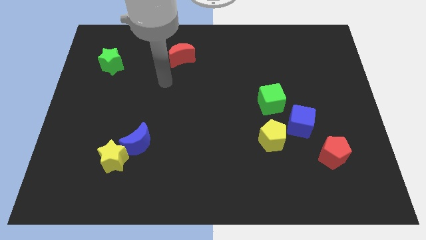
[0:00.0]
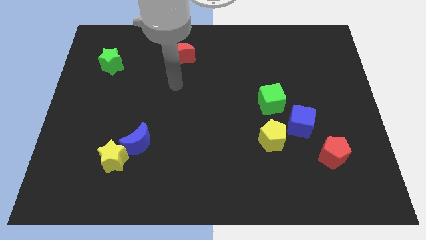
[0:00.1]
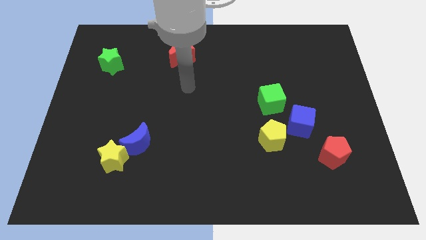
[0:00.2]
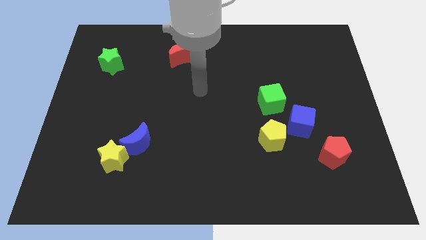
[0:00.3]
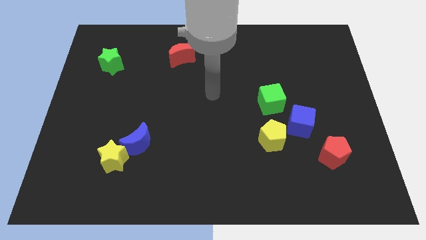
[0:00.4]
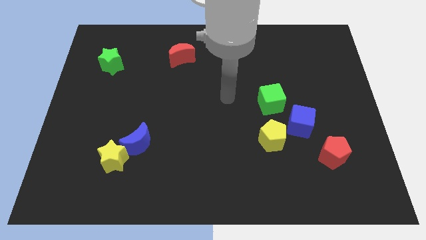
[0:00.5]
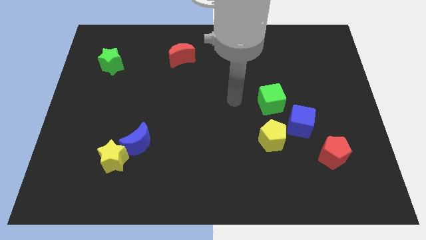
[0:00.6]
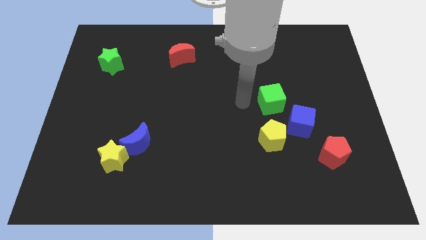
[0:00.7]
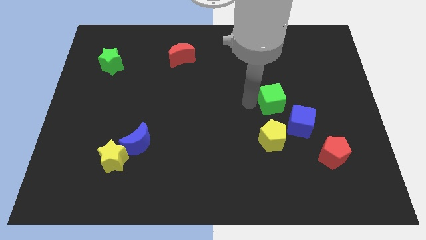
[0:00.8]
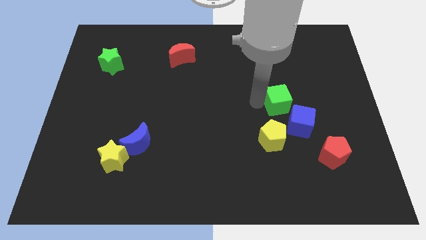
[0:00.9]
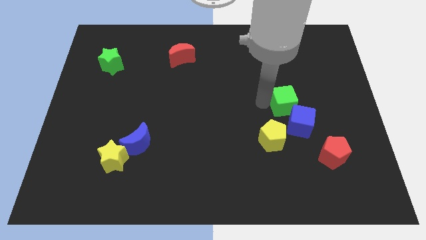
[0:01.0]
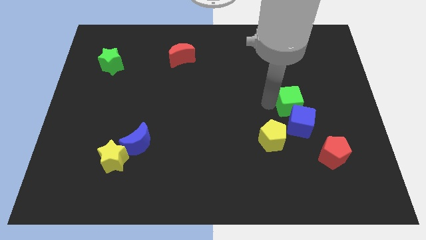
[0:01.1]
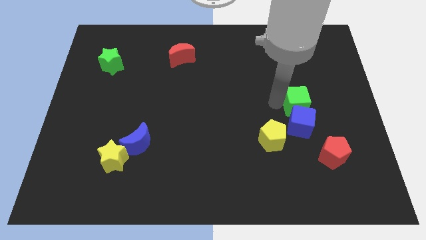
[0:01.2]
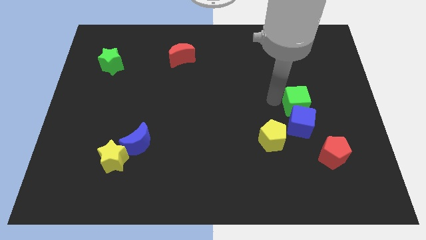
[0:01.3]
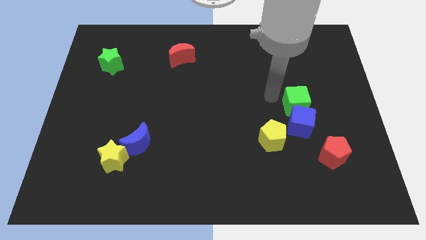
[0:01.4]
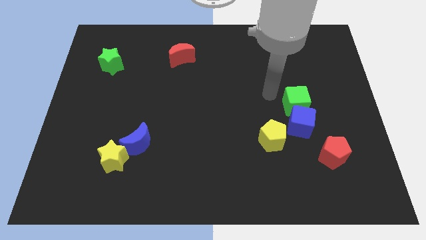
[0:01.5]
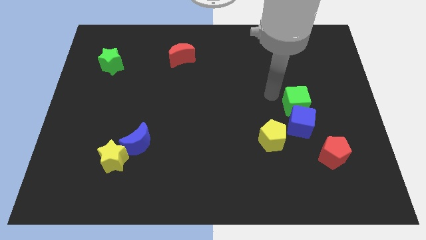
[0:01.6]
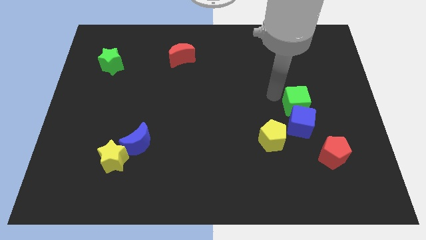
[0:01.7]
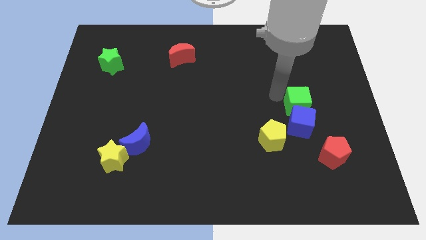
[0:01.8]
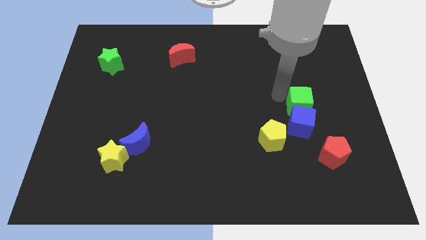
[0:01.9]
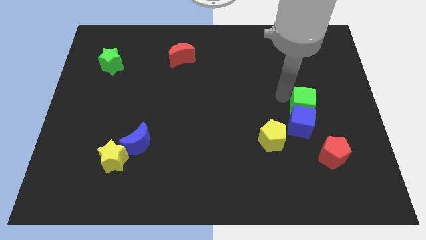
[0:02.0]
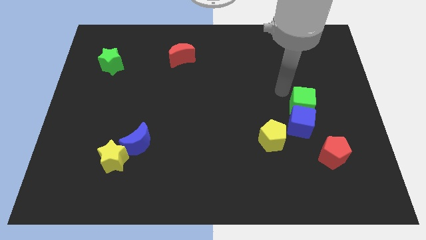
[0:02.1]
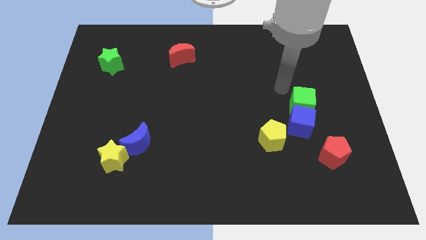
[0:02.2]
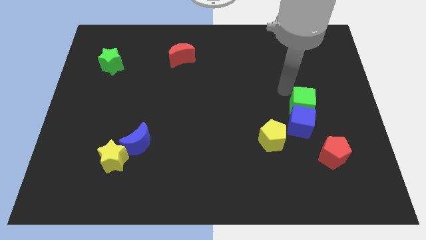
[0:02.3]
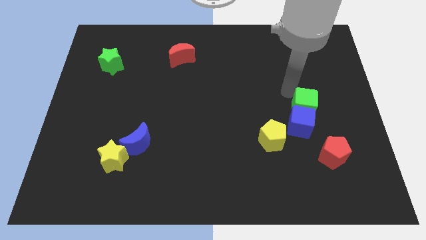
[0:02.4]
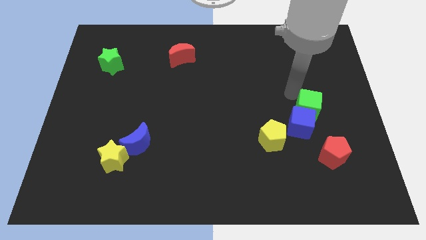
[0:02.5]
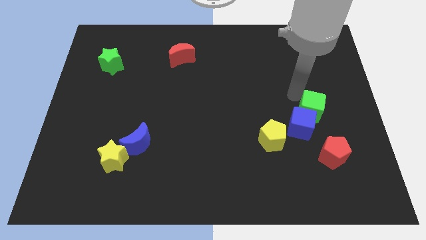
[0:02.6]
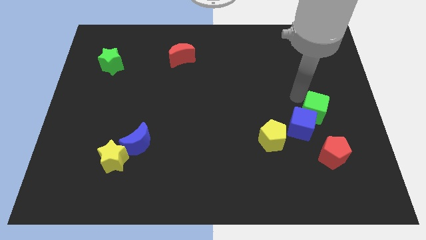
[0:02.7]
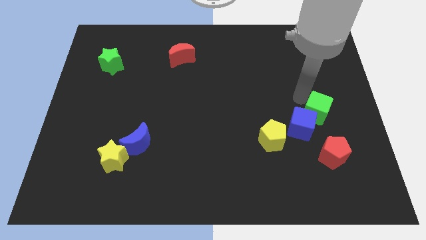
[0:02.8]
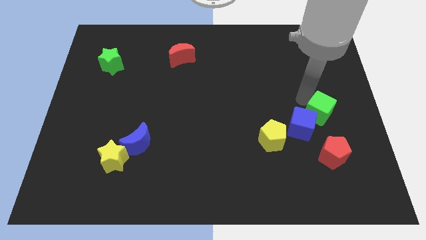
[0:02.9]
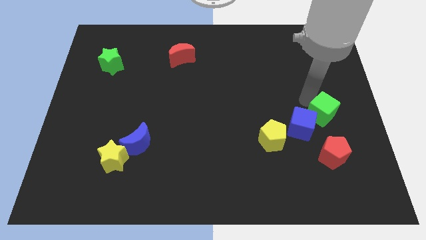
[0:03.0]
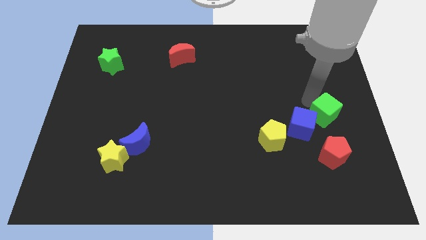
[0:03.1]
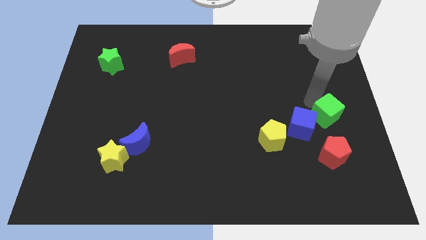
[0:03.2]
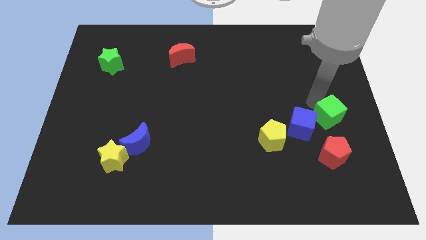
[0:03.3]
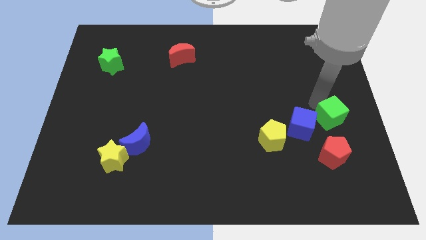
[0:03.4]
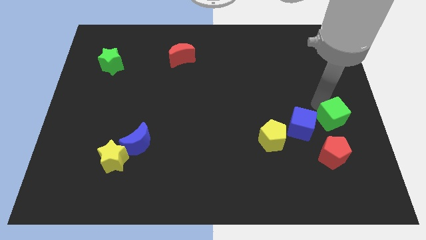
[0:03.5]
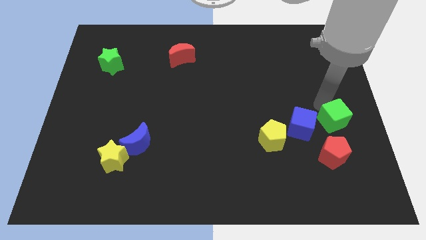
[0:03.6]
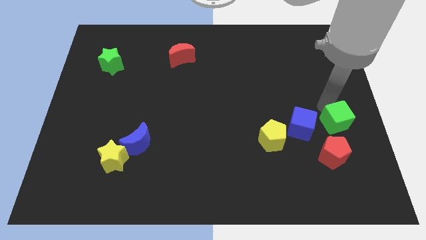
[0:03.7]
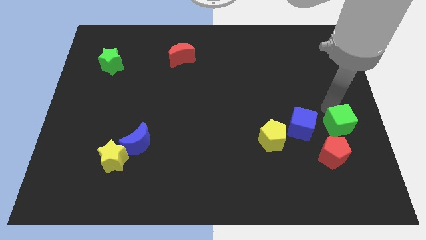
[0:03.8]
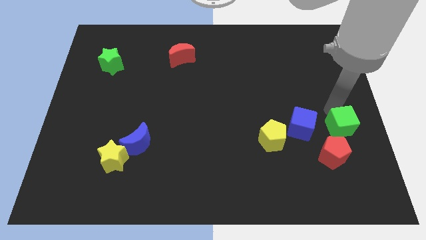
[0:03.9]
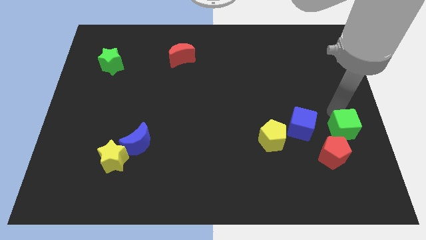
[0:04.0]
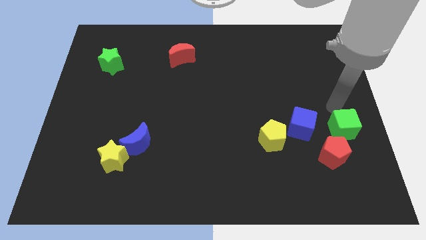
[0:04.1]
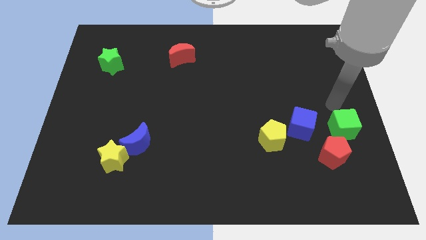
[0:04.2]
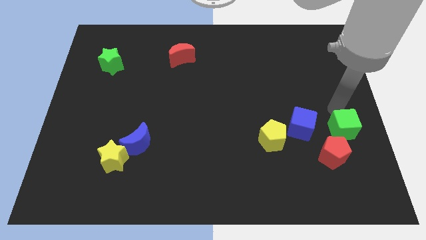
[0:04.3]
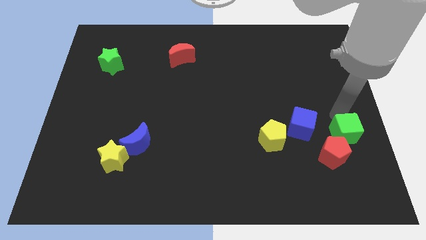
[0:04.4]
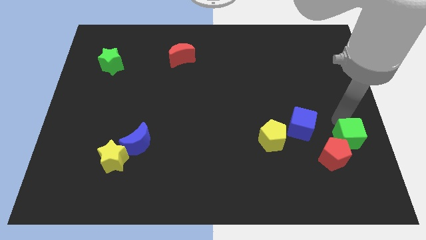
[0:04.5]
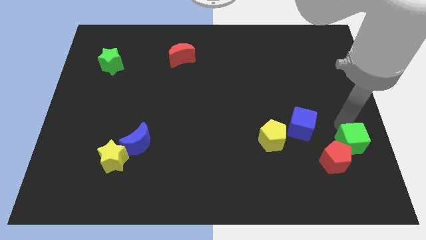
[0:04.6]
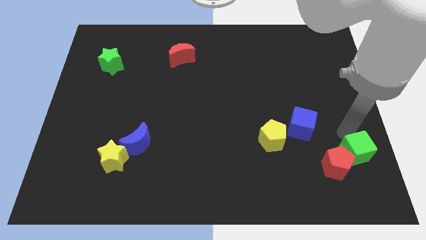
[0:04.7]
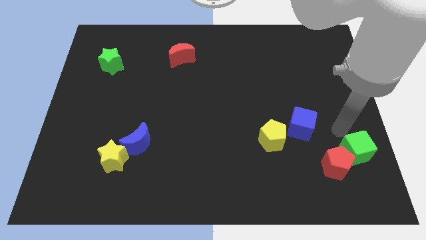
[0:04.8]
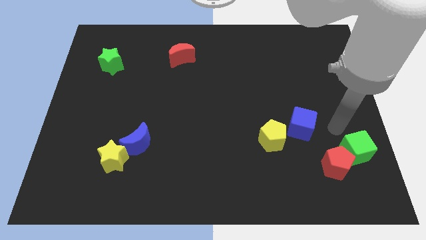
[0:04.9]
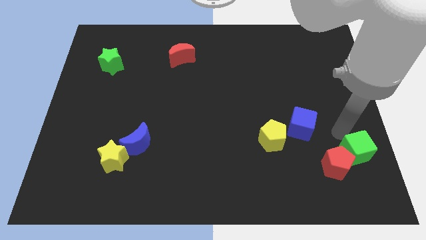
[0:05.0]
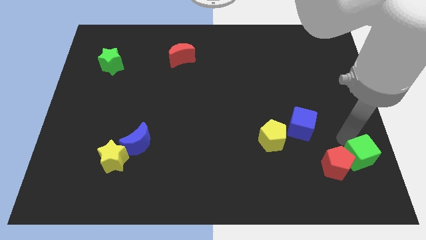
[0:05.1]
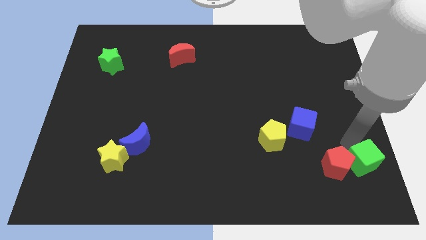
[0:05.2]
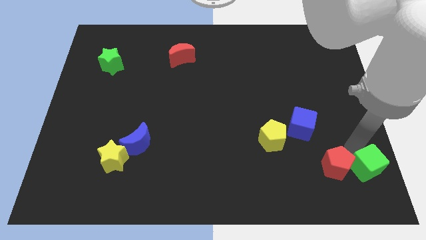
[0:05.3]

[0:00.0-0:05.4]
move the green cube to the bottom right
